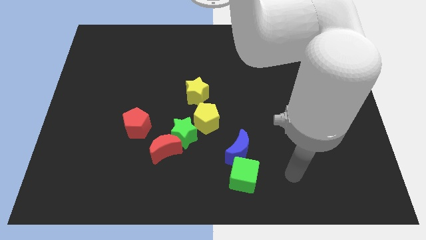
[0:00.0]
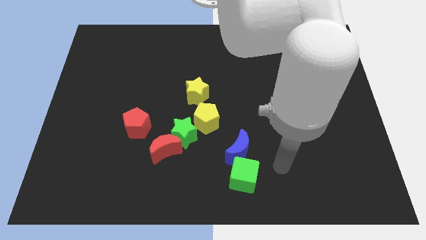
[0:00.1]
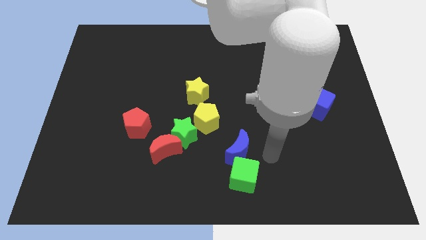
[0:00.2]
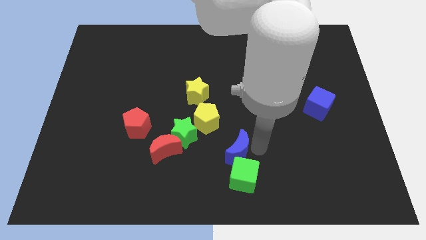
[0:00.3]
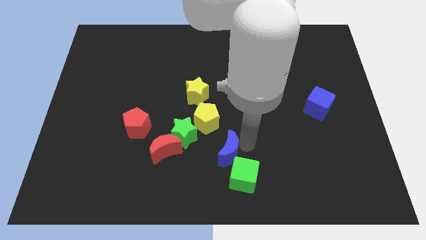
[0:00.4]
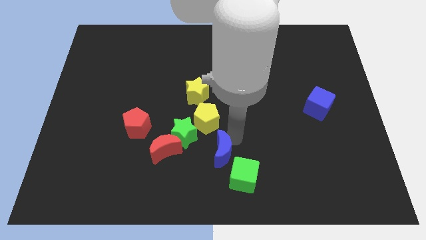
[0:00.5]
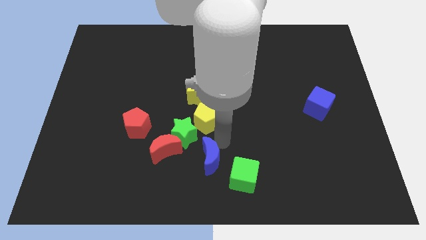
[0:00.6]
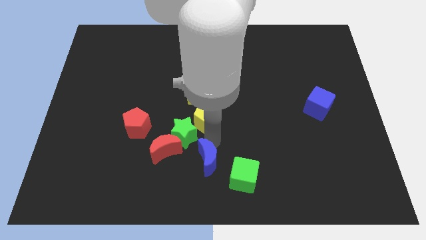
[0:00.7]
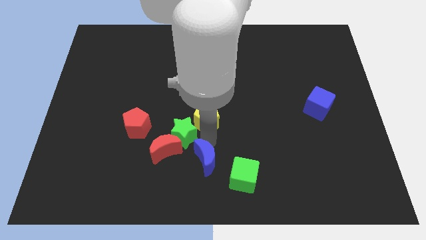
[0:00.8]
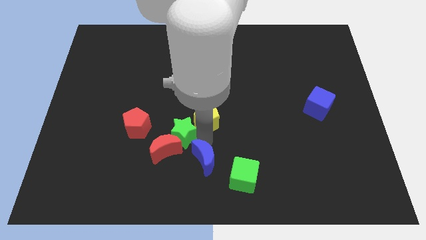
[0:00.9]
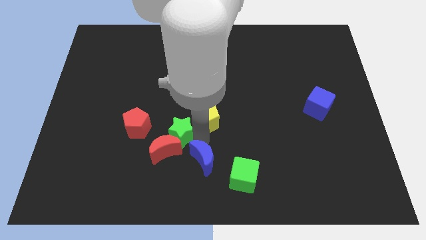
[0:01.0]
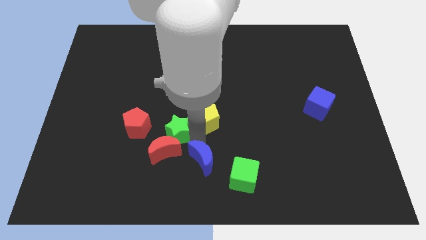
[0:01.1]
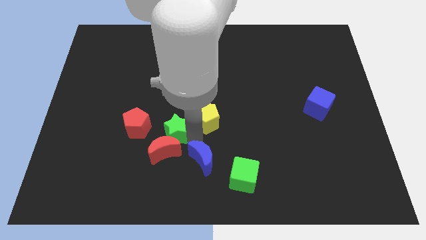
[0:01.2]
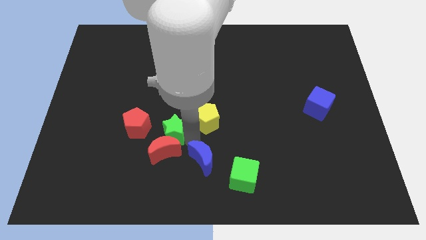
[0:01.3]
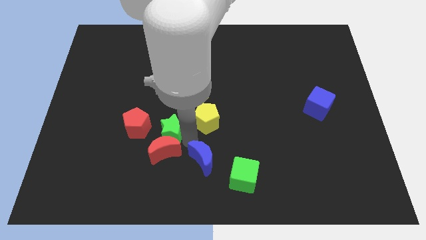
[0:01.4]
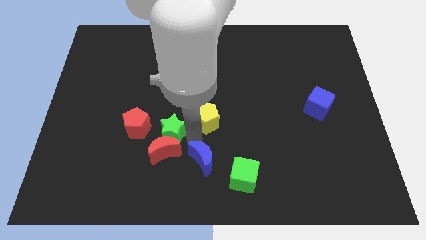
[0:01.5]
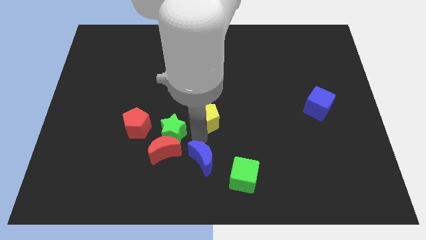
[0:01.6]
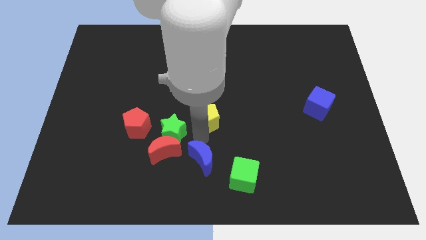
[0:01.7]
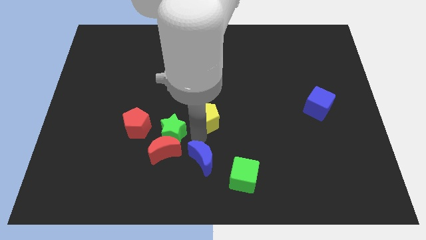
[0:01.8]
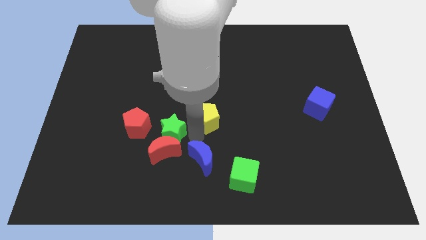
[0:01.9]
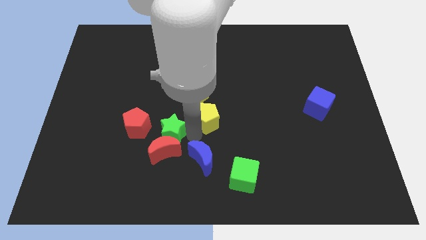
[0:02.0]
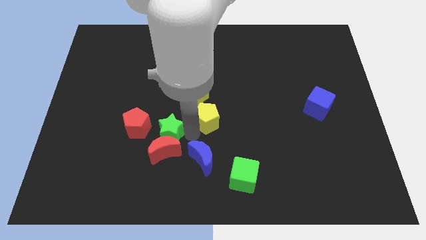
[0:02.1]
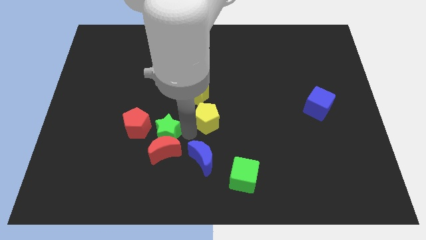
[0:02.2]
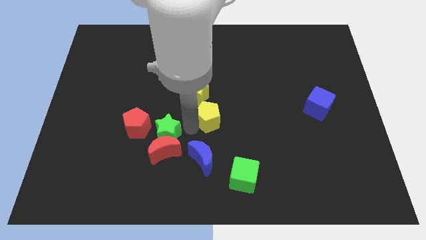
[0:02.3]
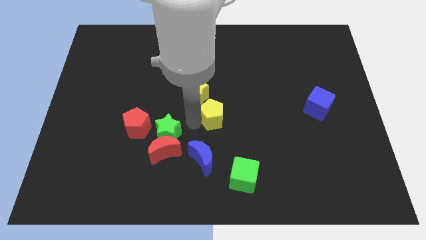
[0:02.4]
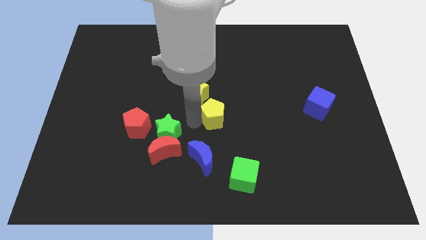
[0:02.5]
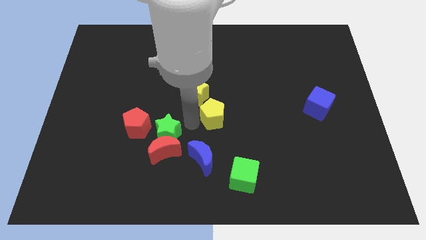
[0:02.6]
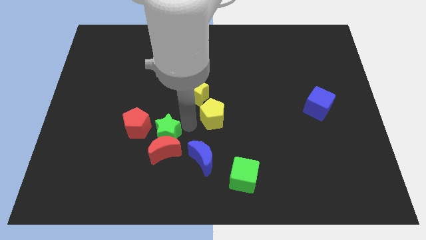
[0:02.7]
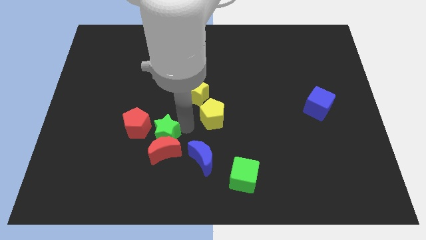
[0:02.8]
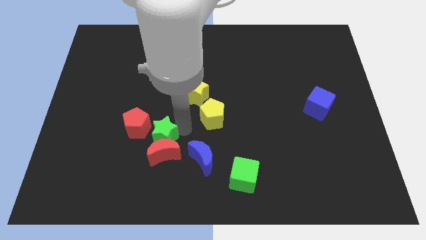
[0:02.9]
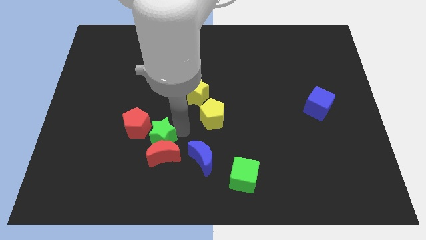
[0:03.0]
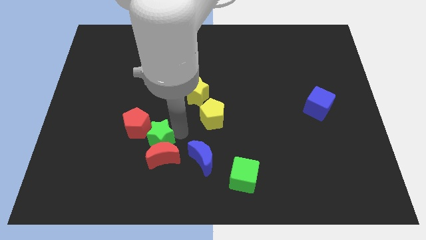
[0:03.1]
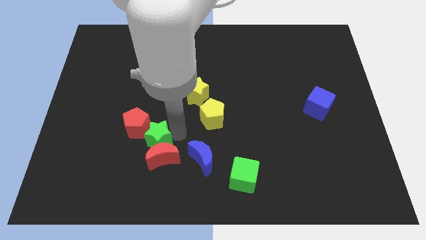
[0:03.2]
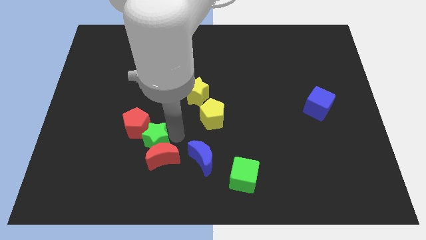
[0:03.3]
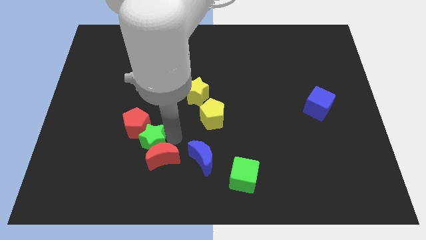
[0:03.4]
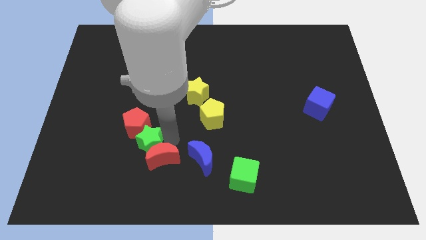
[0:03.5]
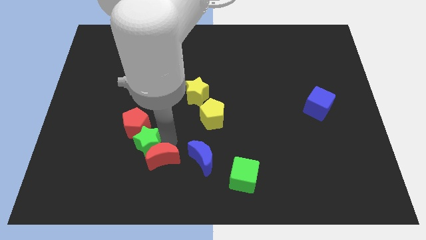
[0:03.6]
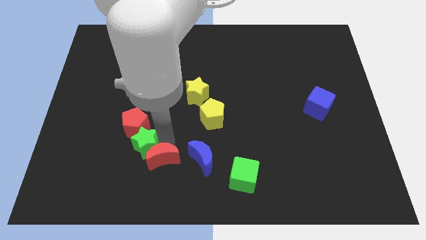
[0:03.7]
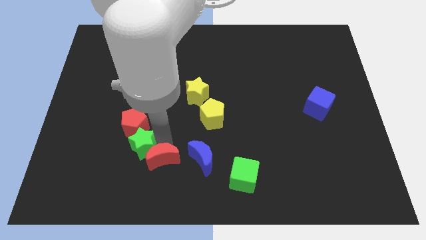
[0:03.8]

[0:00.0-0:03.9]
move the green star away from the red moon and yellow pentagon

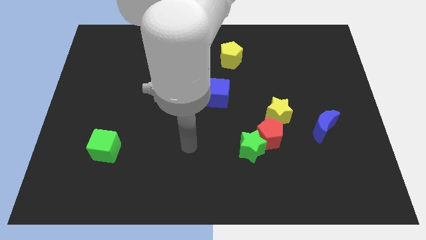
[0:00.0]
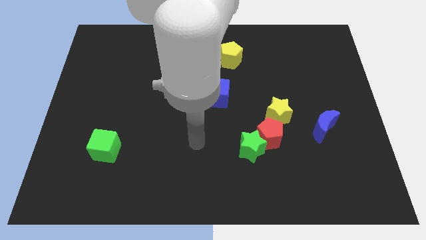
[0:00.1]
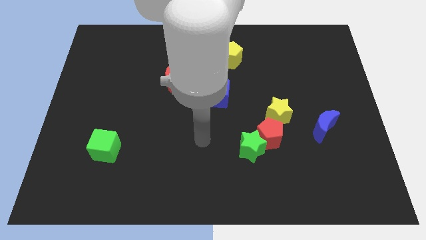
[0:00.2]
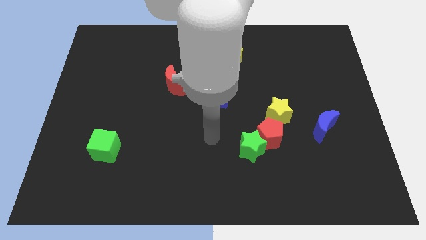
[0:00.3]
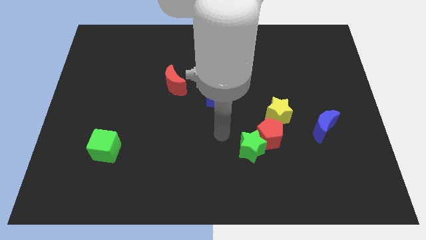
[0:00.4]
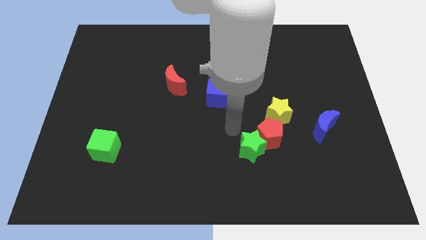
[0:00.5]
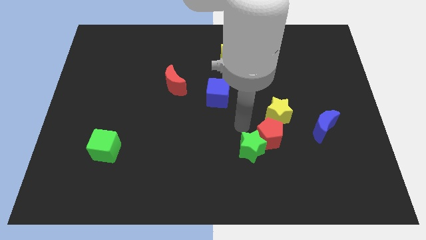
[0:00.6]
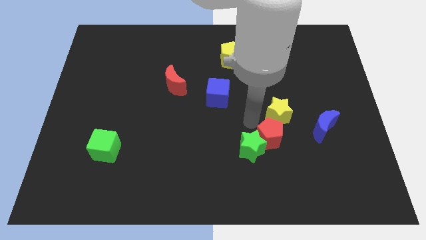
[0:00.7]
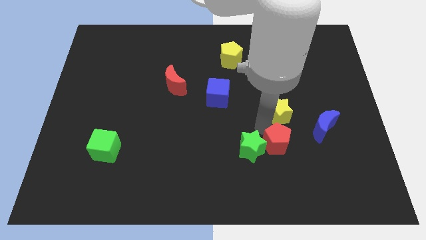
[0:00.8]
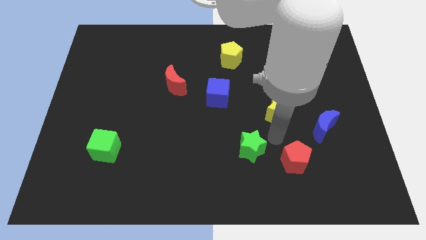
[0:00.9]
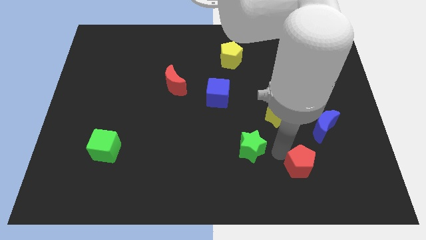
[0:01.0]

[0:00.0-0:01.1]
separate the green star from the red pentagon

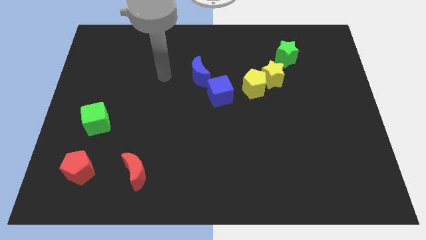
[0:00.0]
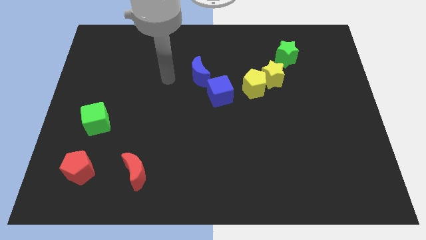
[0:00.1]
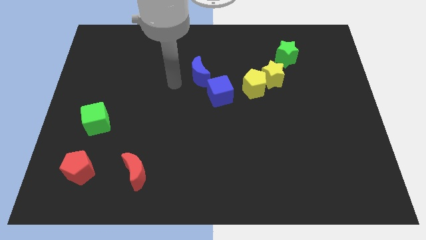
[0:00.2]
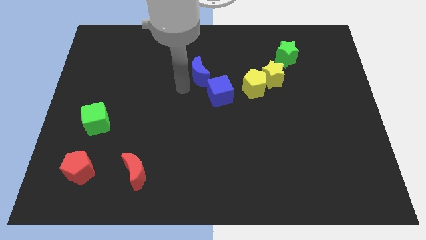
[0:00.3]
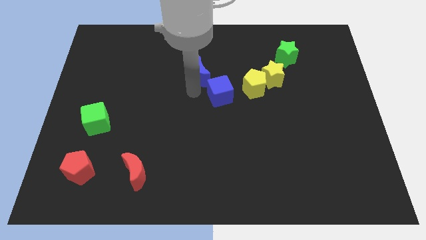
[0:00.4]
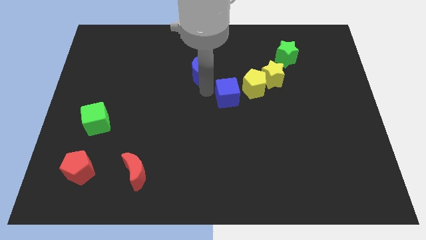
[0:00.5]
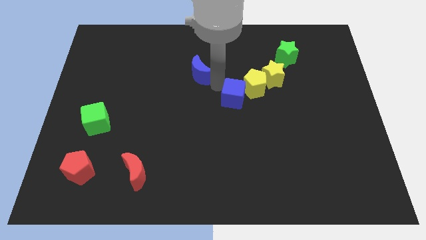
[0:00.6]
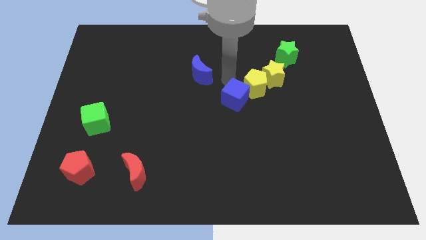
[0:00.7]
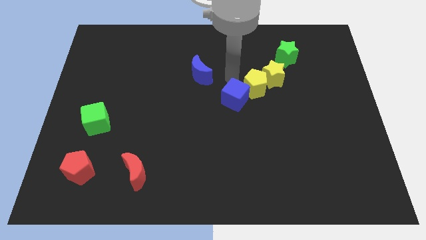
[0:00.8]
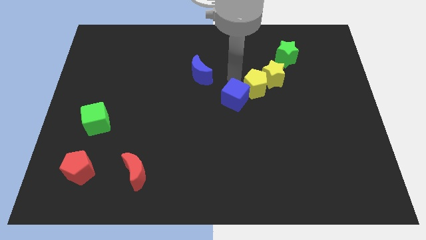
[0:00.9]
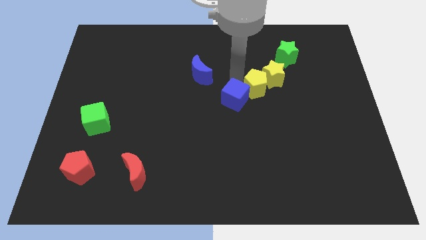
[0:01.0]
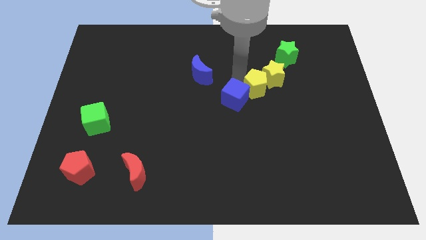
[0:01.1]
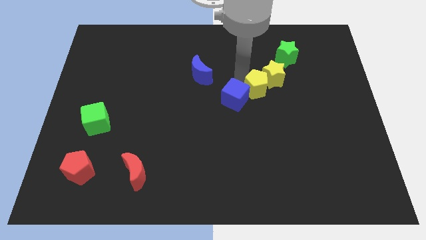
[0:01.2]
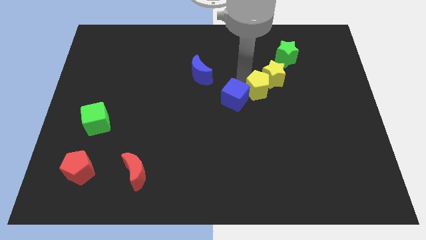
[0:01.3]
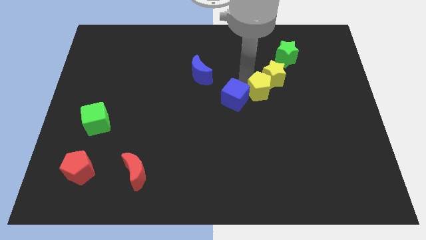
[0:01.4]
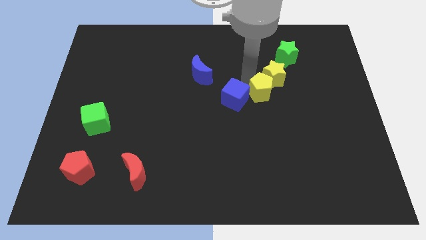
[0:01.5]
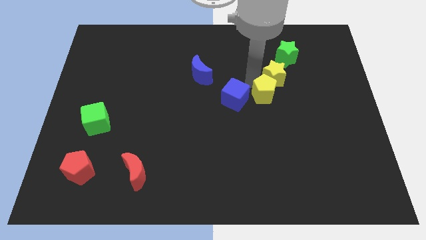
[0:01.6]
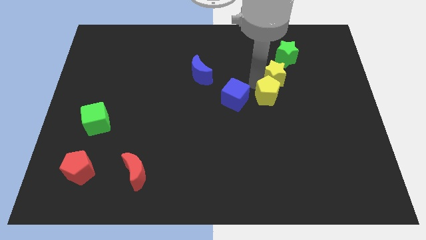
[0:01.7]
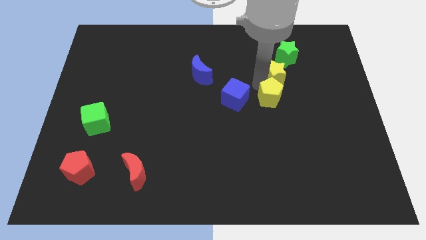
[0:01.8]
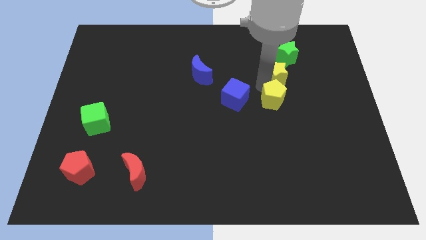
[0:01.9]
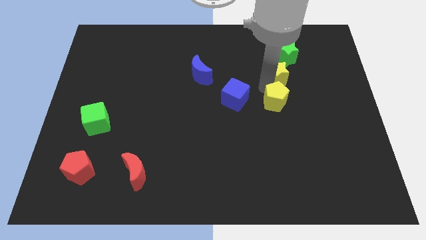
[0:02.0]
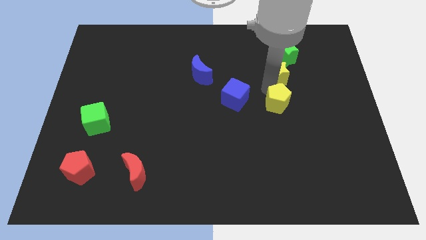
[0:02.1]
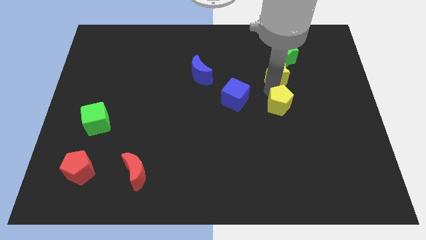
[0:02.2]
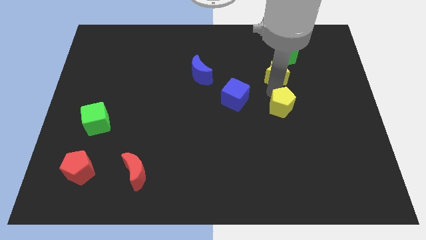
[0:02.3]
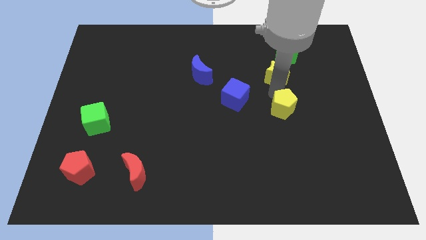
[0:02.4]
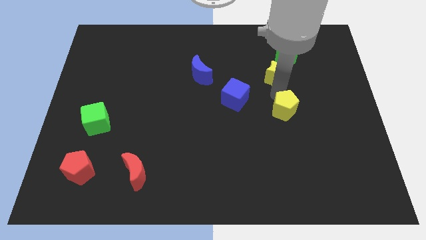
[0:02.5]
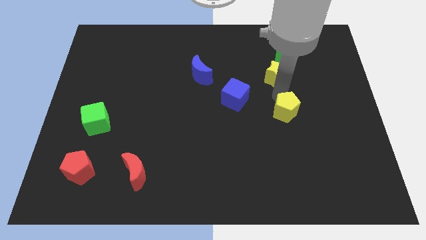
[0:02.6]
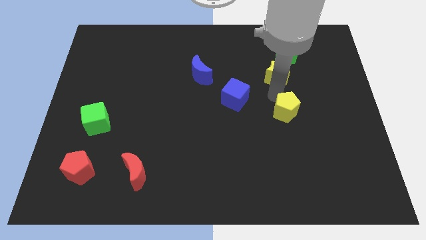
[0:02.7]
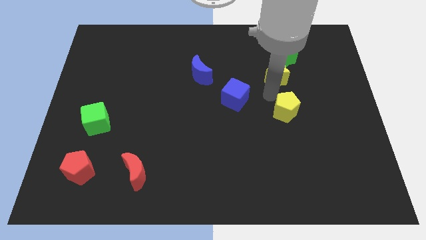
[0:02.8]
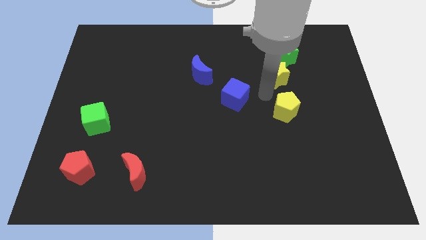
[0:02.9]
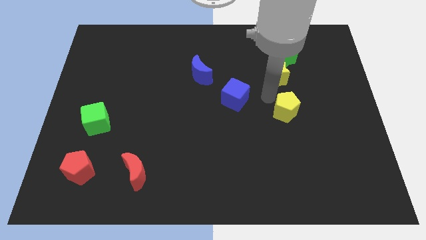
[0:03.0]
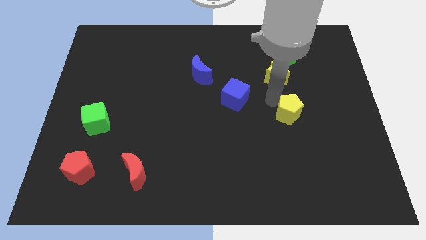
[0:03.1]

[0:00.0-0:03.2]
pull the yellow pentagon apart from the yellow star and blue cube

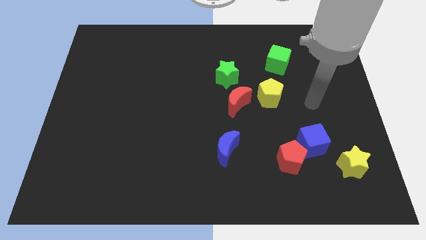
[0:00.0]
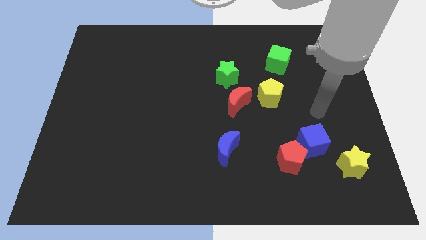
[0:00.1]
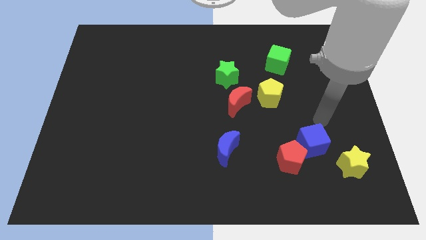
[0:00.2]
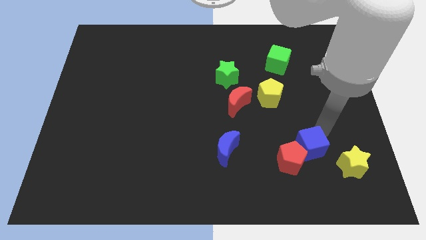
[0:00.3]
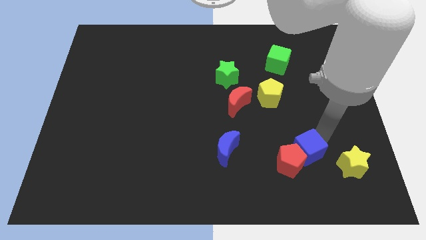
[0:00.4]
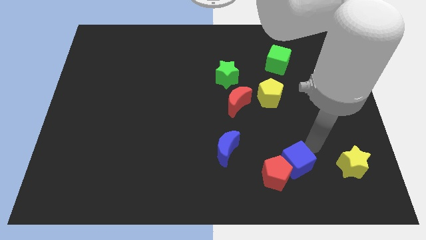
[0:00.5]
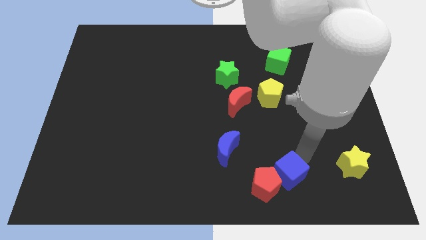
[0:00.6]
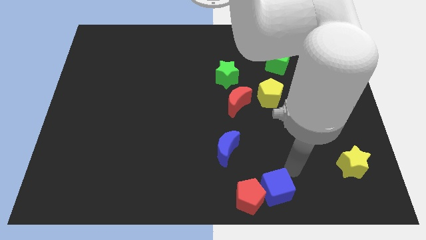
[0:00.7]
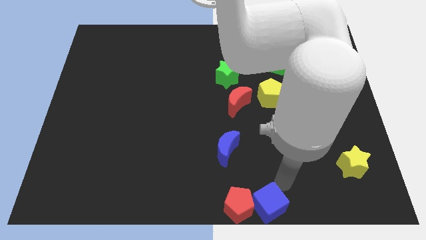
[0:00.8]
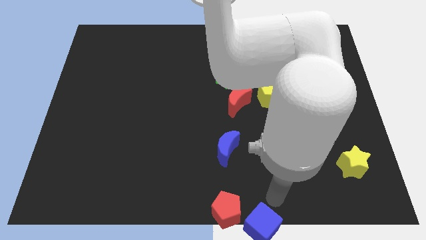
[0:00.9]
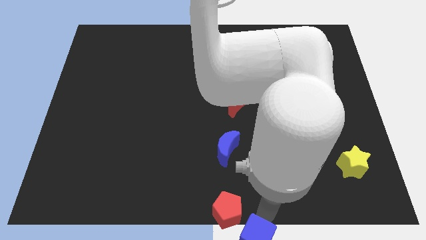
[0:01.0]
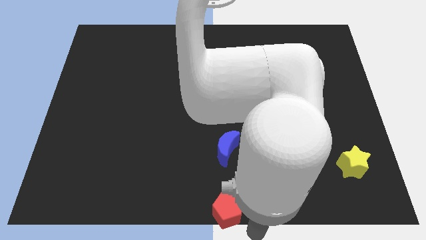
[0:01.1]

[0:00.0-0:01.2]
move the red pentagon away from the blue cube
